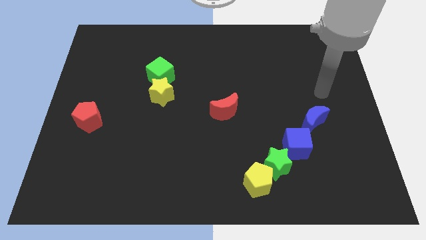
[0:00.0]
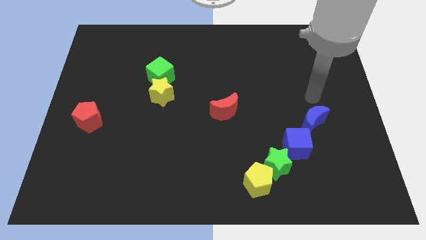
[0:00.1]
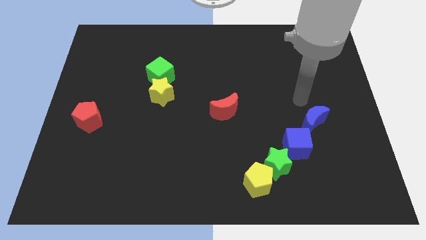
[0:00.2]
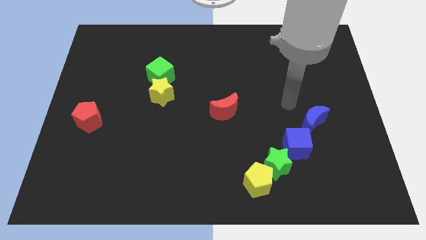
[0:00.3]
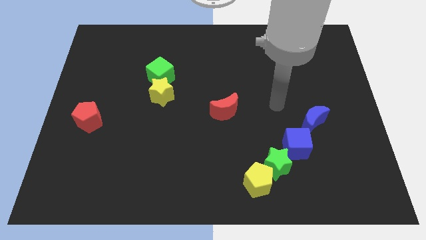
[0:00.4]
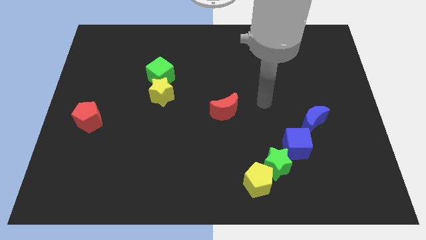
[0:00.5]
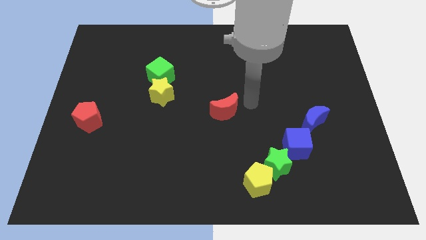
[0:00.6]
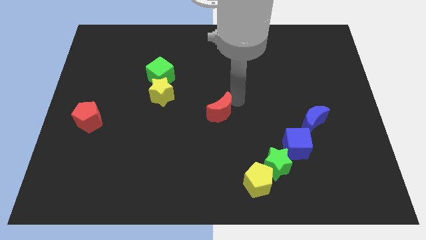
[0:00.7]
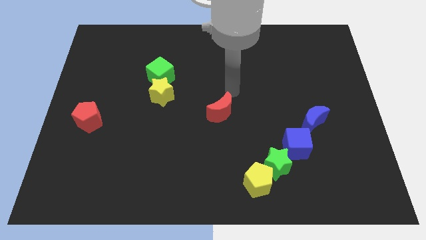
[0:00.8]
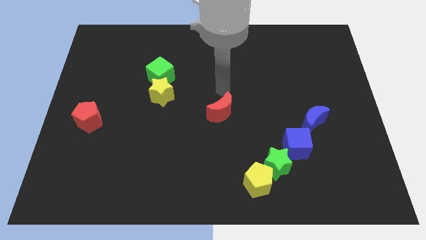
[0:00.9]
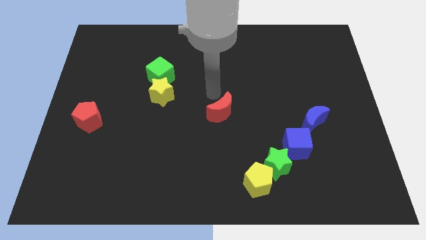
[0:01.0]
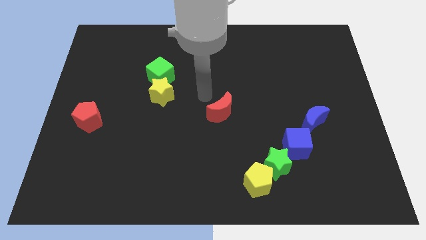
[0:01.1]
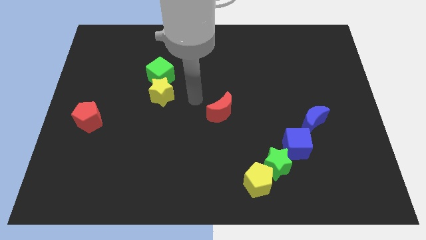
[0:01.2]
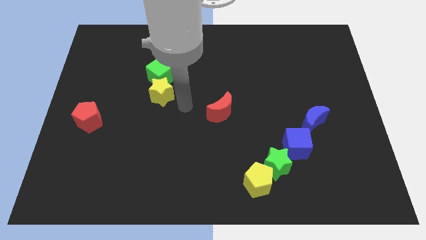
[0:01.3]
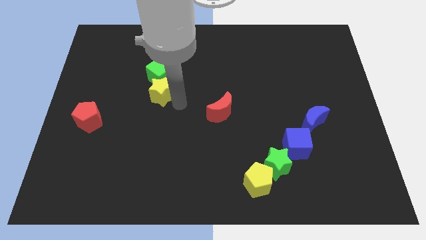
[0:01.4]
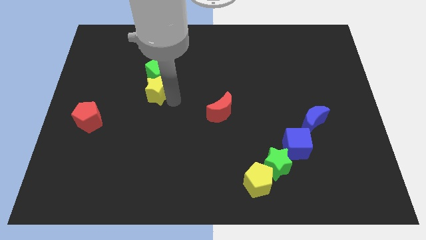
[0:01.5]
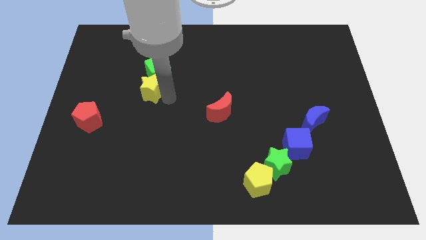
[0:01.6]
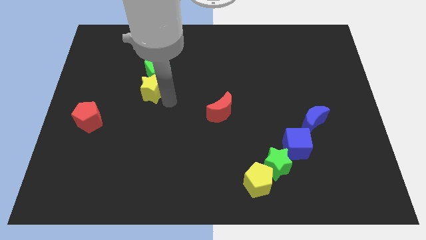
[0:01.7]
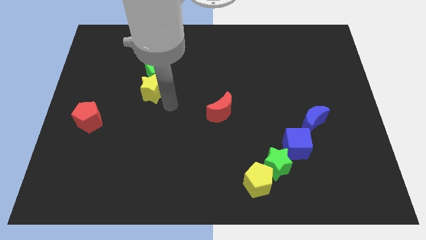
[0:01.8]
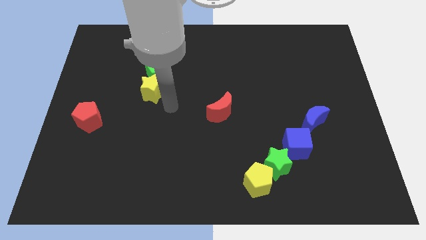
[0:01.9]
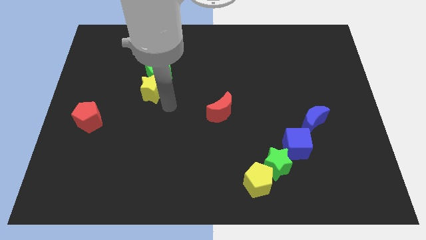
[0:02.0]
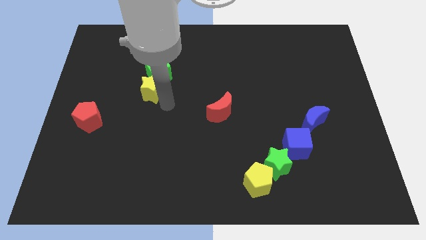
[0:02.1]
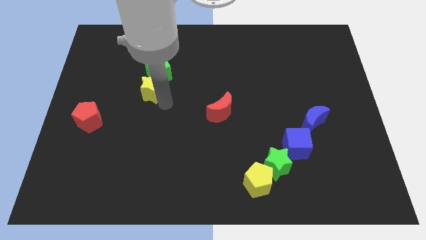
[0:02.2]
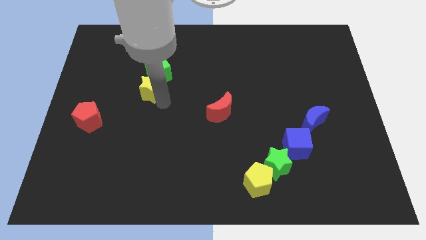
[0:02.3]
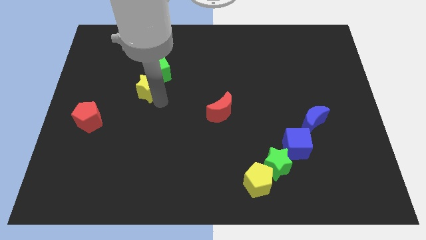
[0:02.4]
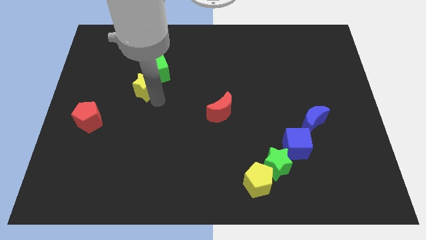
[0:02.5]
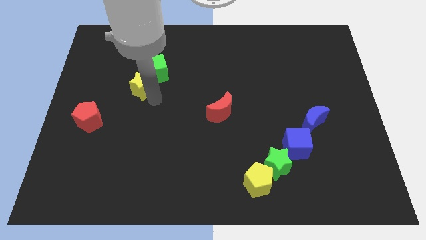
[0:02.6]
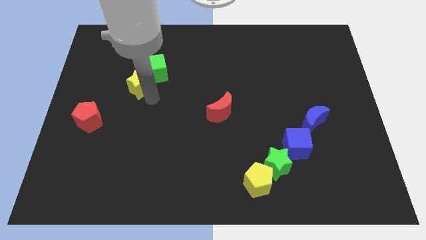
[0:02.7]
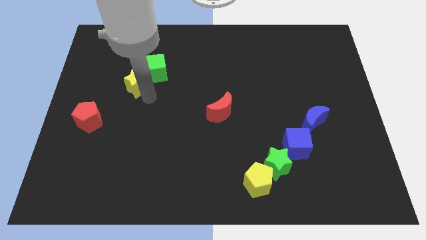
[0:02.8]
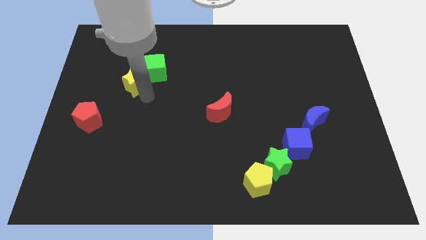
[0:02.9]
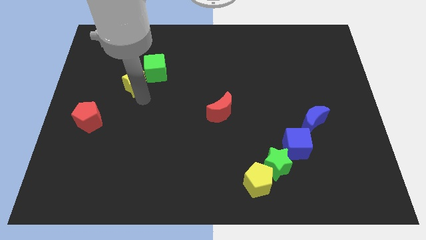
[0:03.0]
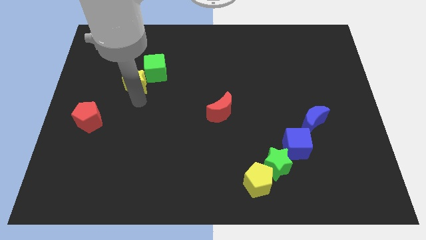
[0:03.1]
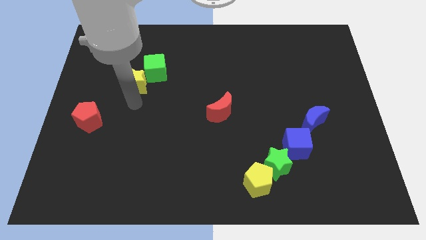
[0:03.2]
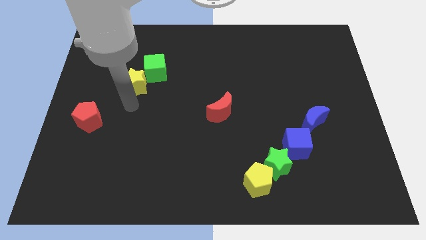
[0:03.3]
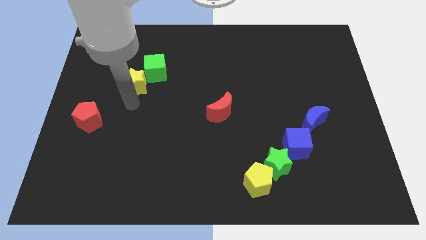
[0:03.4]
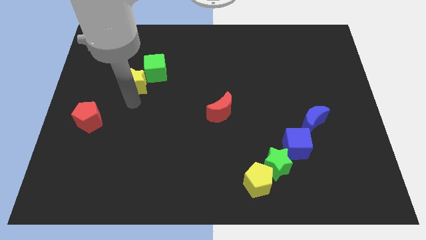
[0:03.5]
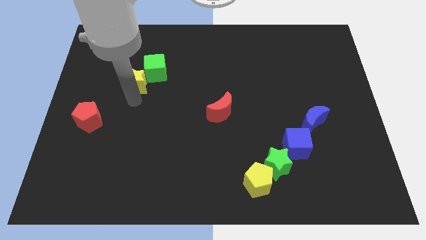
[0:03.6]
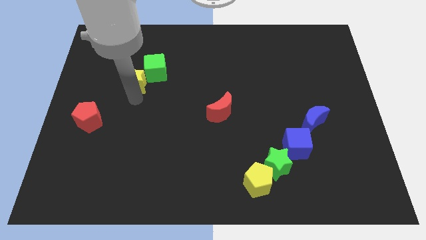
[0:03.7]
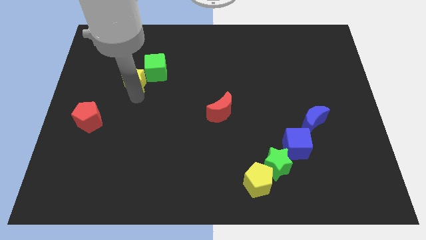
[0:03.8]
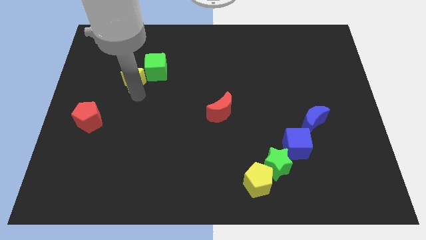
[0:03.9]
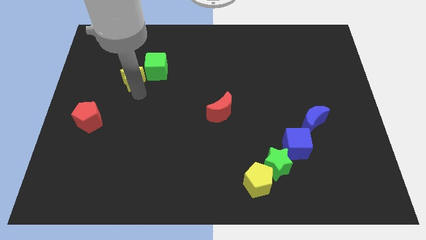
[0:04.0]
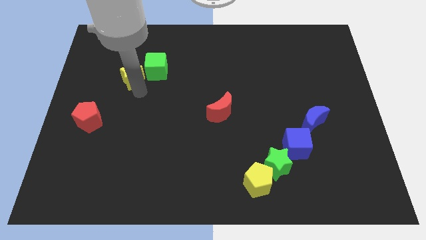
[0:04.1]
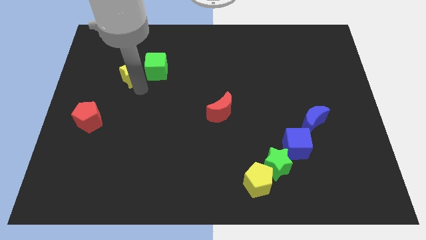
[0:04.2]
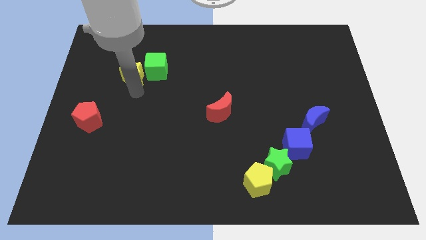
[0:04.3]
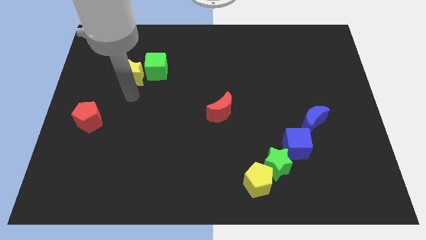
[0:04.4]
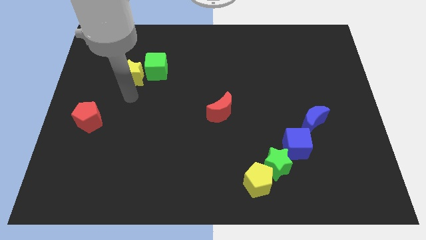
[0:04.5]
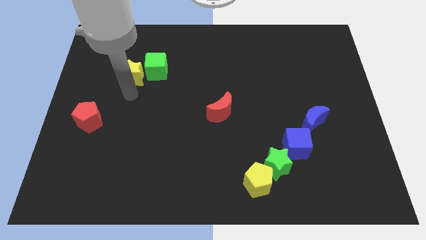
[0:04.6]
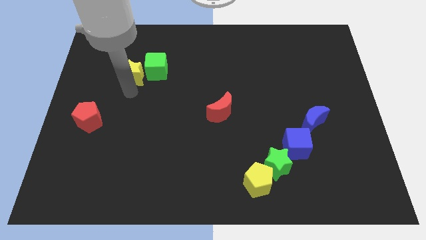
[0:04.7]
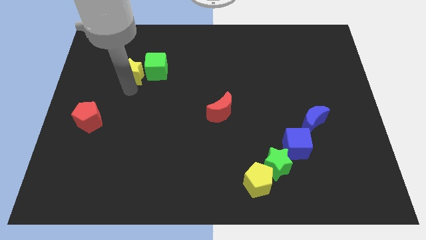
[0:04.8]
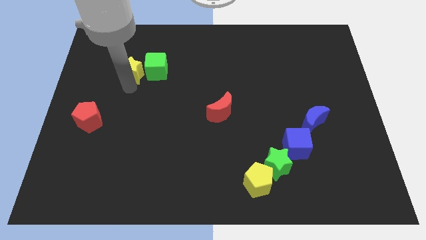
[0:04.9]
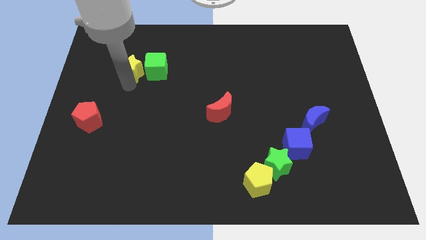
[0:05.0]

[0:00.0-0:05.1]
slide the yellow star diagonally up and to the left of the green cube

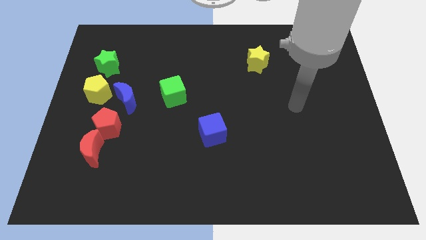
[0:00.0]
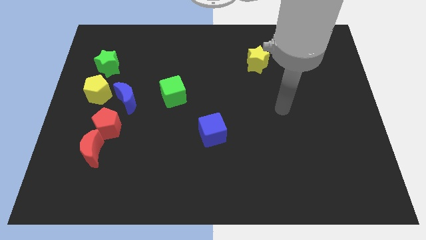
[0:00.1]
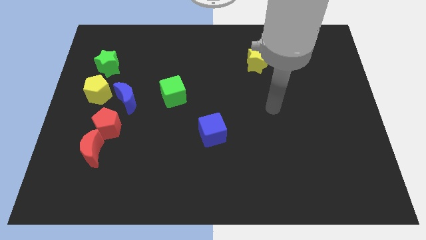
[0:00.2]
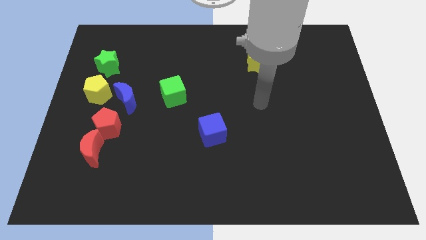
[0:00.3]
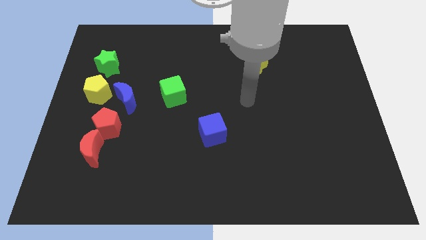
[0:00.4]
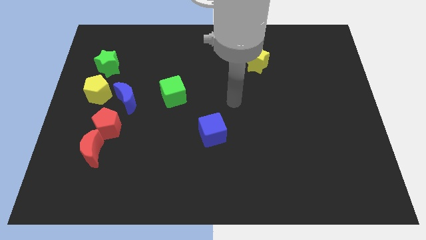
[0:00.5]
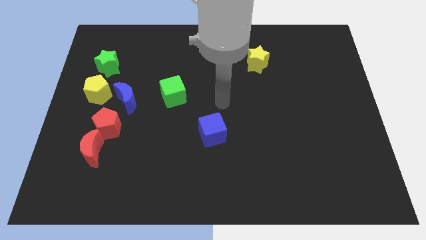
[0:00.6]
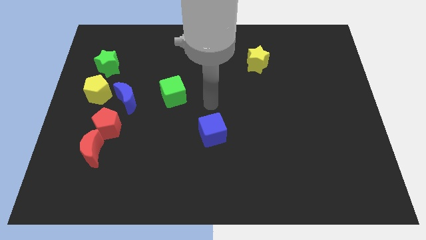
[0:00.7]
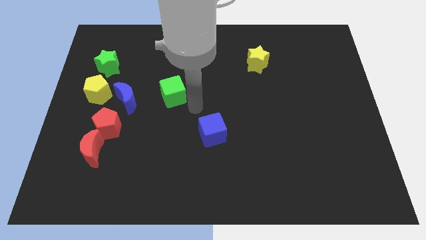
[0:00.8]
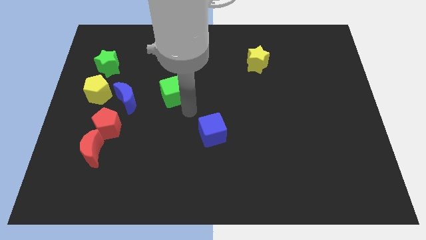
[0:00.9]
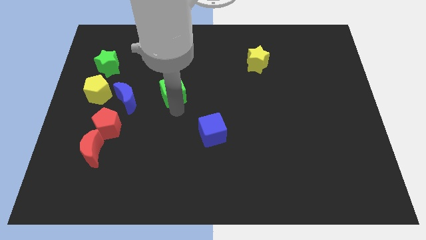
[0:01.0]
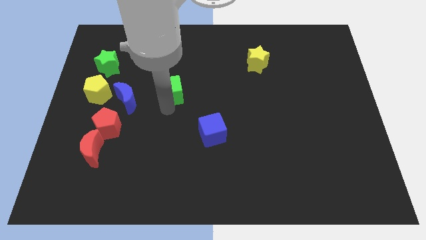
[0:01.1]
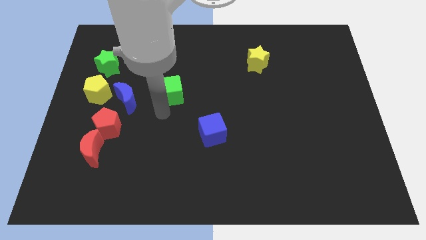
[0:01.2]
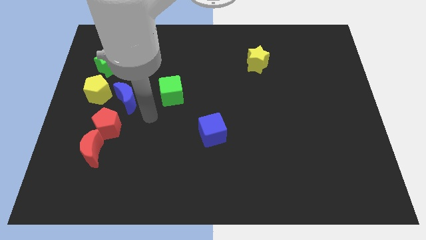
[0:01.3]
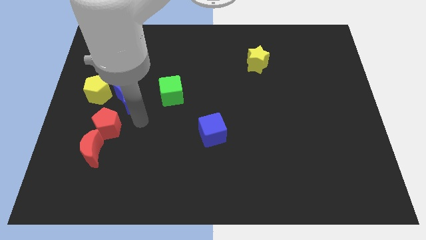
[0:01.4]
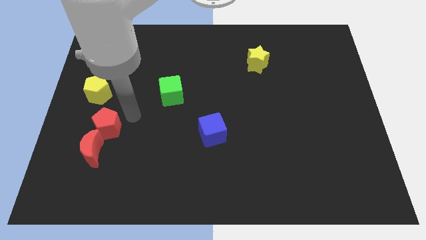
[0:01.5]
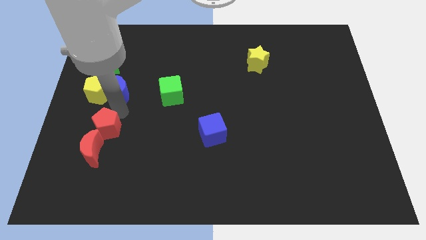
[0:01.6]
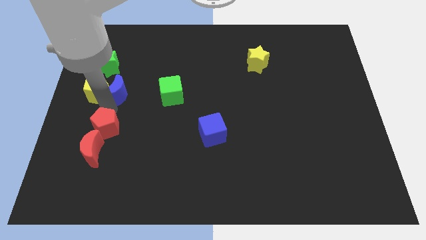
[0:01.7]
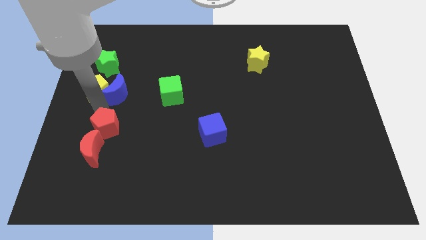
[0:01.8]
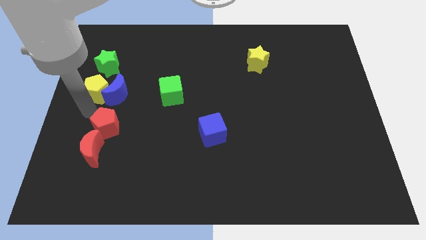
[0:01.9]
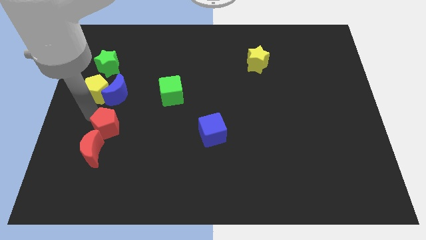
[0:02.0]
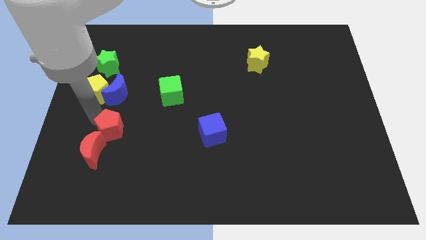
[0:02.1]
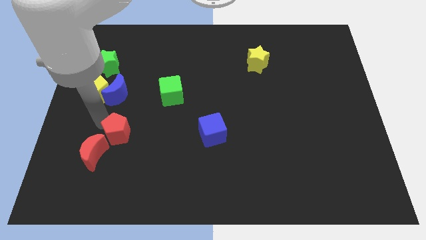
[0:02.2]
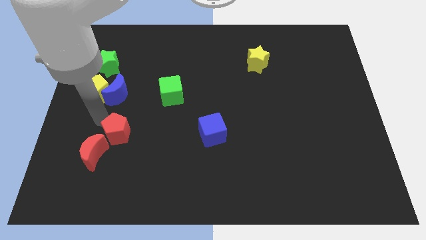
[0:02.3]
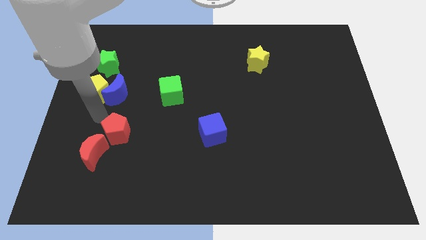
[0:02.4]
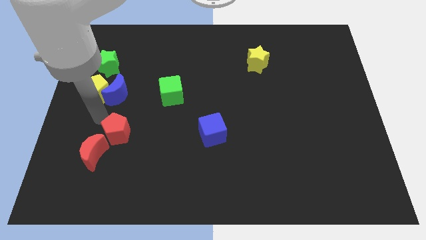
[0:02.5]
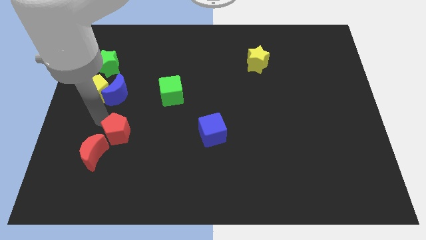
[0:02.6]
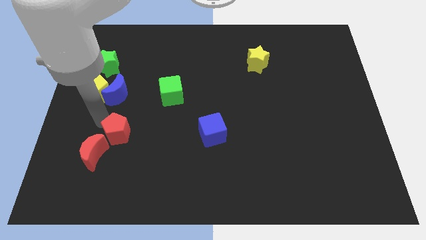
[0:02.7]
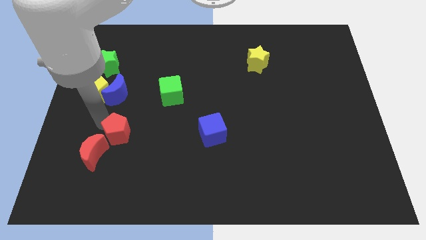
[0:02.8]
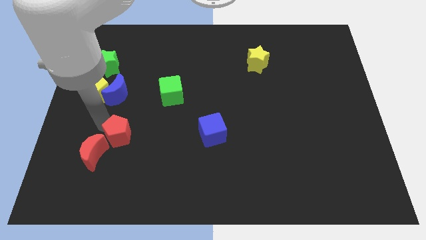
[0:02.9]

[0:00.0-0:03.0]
push the red pentagon right of the red moon
